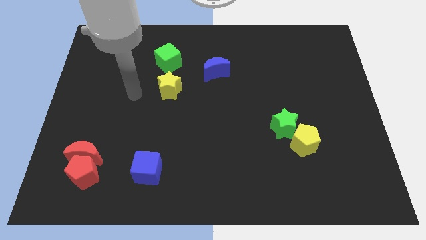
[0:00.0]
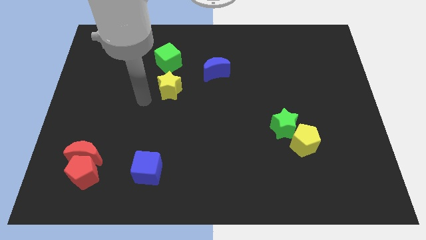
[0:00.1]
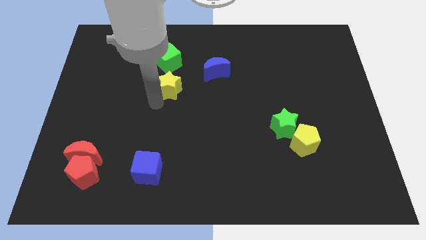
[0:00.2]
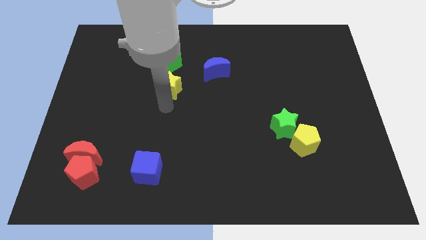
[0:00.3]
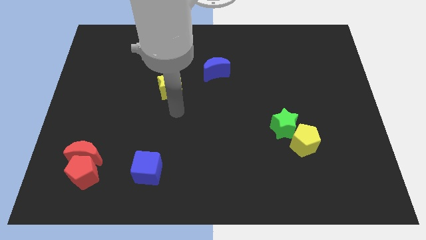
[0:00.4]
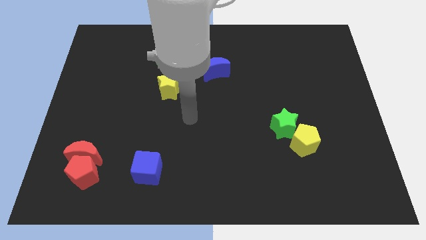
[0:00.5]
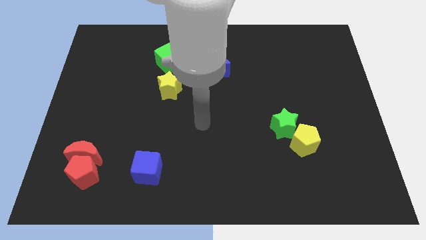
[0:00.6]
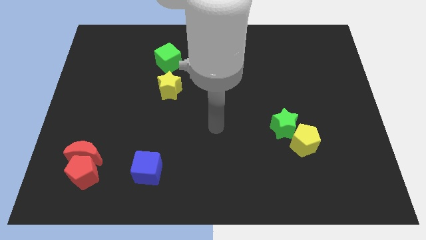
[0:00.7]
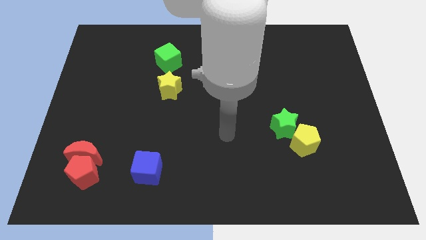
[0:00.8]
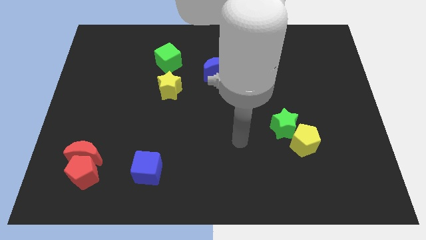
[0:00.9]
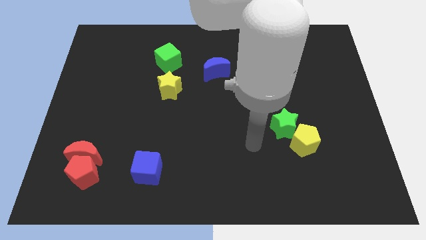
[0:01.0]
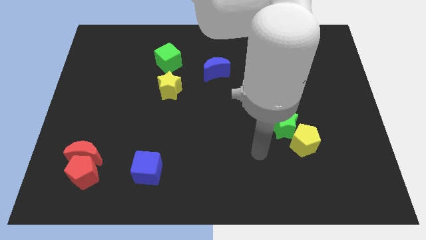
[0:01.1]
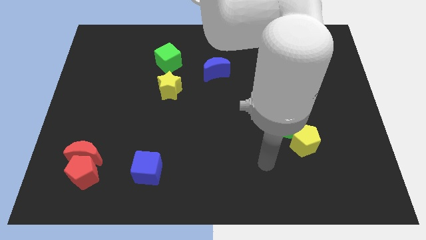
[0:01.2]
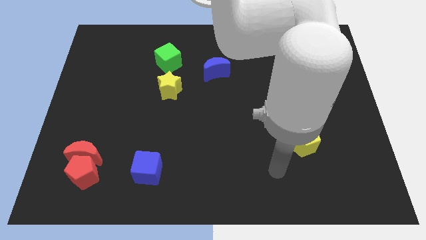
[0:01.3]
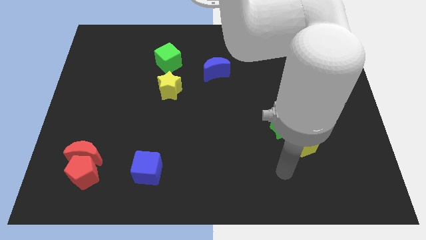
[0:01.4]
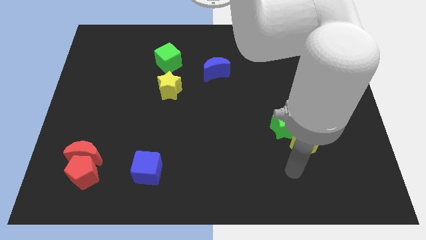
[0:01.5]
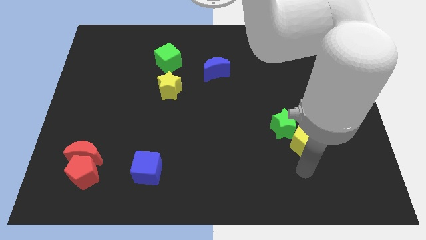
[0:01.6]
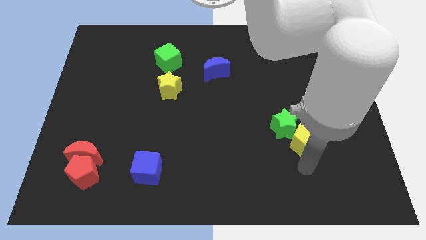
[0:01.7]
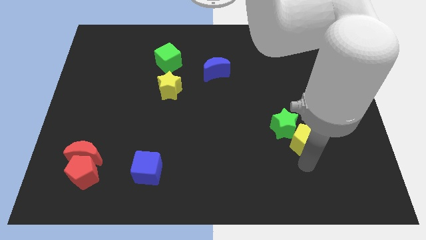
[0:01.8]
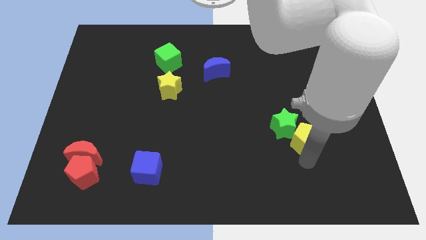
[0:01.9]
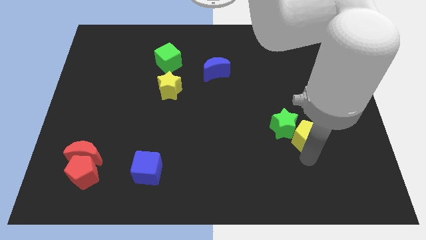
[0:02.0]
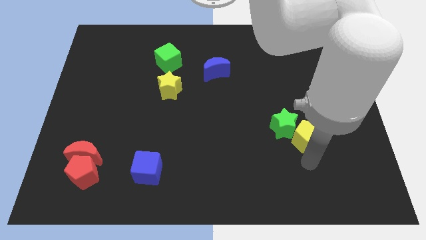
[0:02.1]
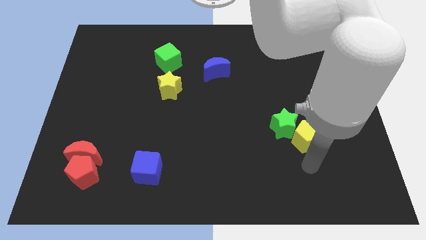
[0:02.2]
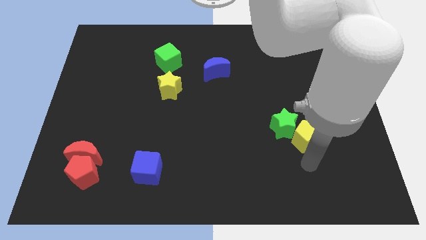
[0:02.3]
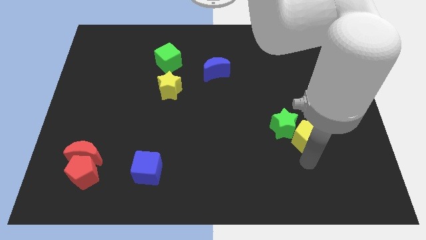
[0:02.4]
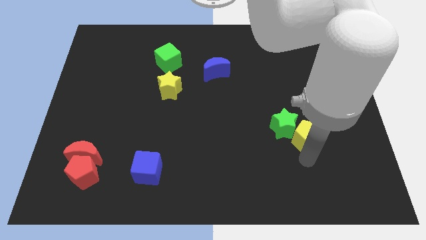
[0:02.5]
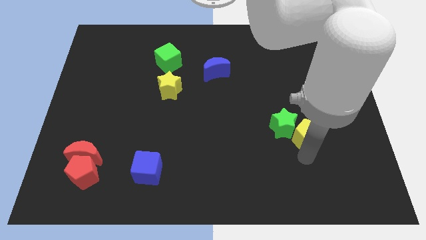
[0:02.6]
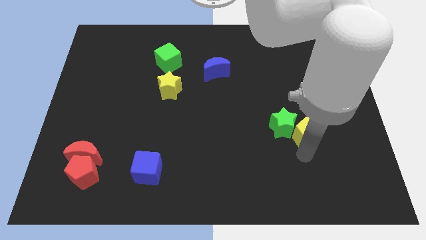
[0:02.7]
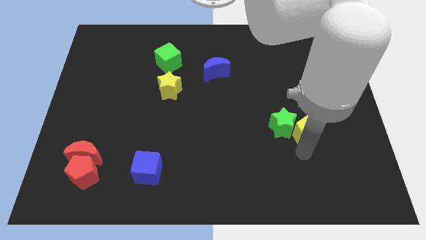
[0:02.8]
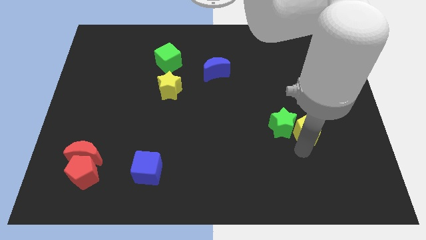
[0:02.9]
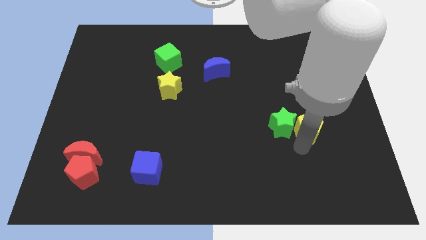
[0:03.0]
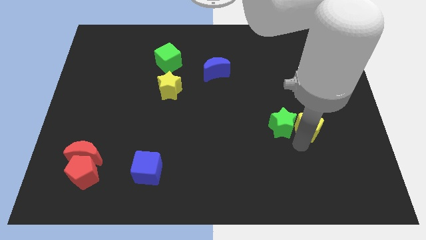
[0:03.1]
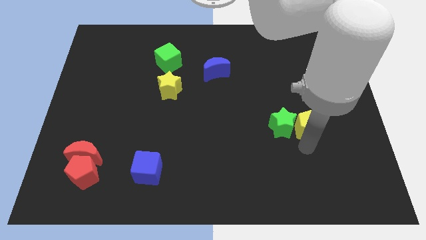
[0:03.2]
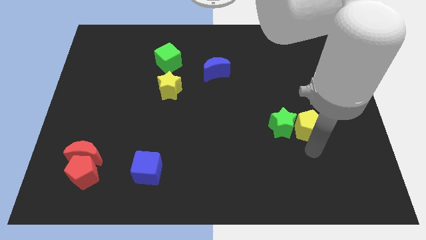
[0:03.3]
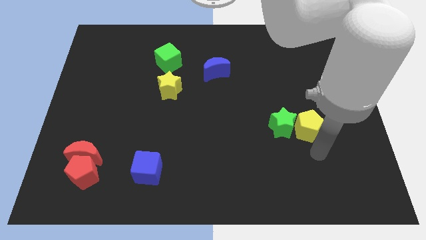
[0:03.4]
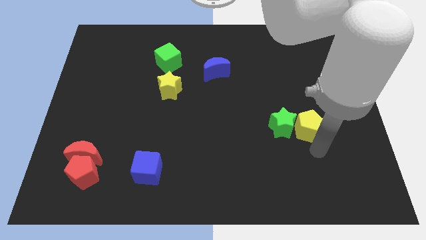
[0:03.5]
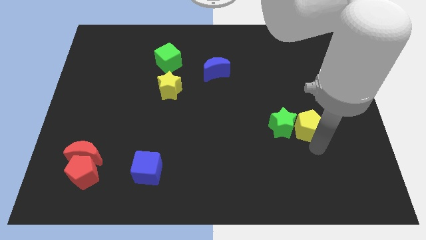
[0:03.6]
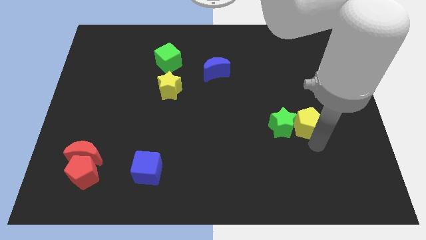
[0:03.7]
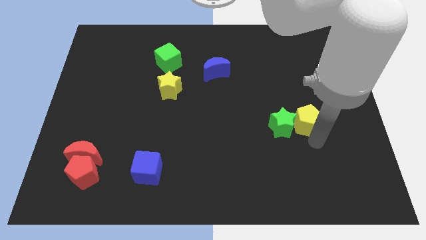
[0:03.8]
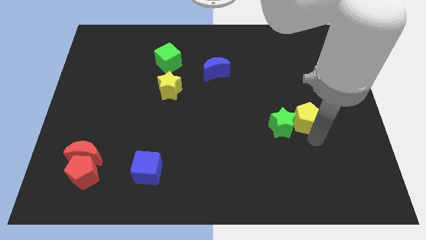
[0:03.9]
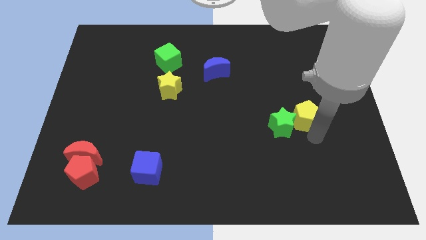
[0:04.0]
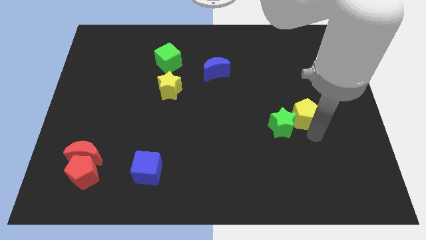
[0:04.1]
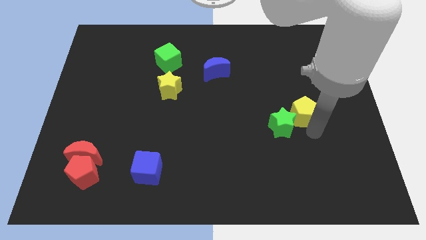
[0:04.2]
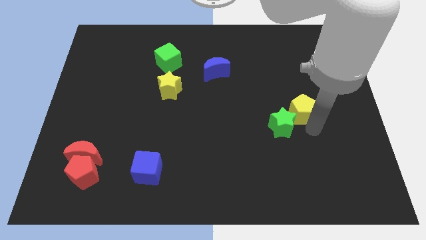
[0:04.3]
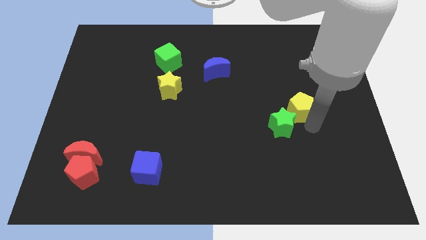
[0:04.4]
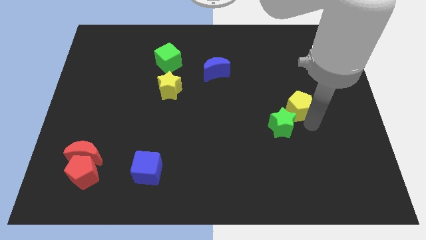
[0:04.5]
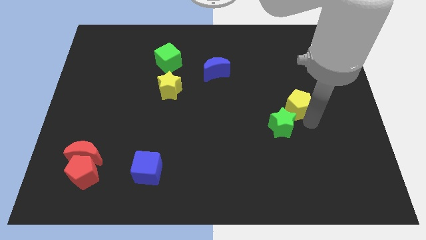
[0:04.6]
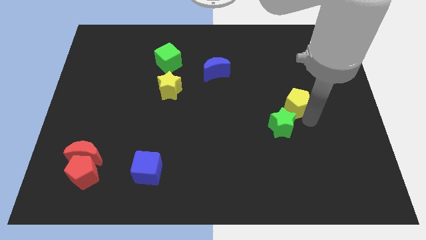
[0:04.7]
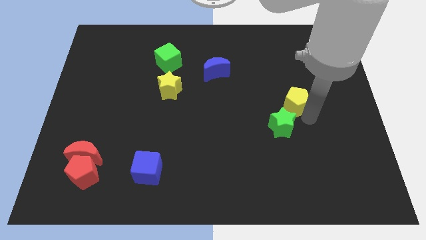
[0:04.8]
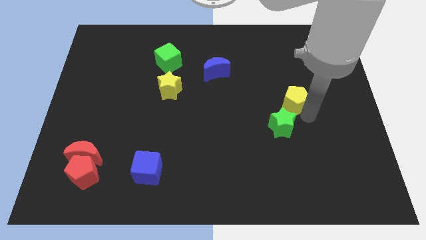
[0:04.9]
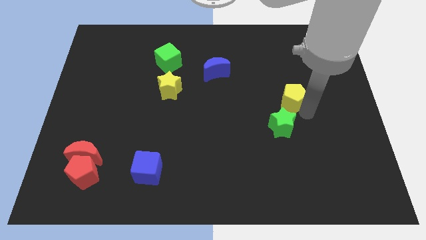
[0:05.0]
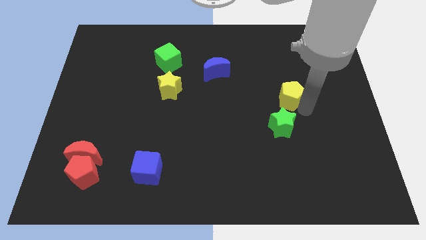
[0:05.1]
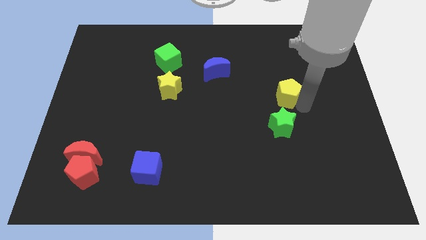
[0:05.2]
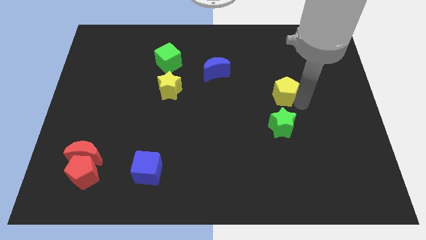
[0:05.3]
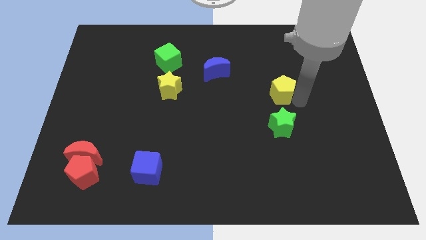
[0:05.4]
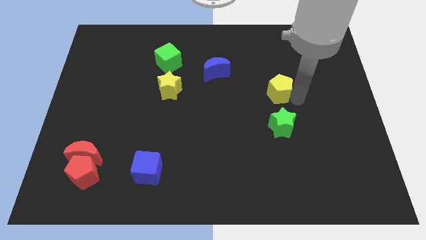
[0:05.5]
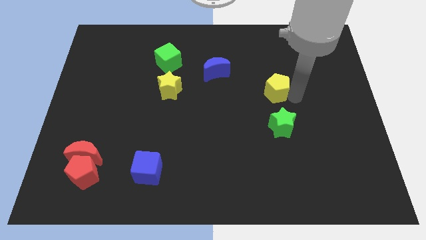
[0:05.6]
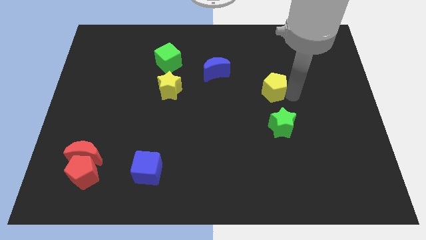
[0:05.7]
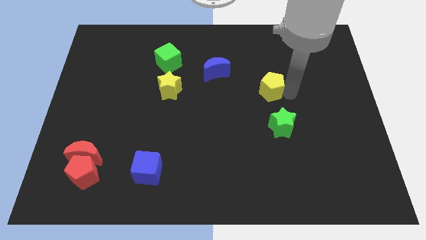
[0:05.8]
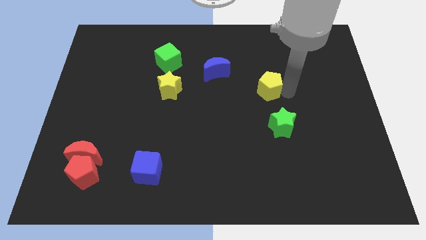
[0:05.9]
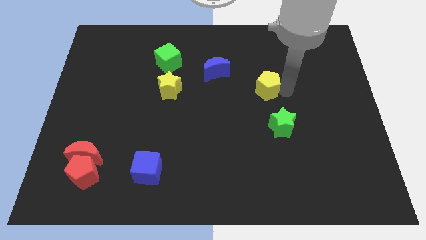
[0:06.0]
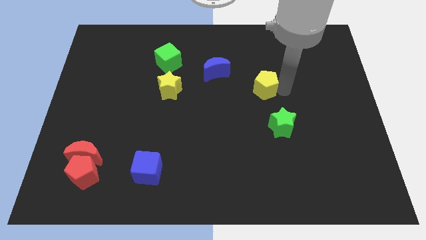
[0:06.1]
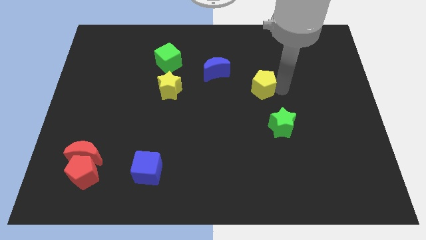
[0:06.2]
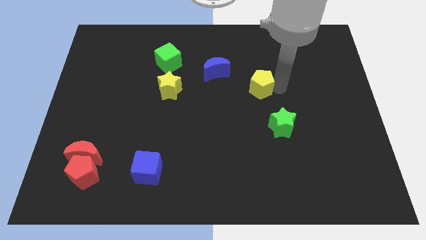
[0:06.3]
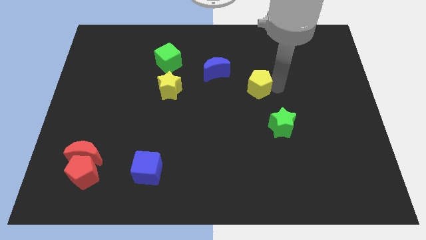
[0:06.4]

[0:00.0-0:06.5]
push the yellow pentagon to the bottom right side of the blue moon
